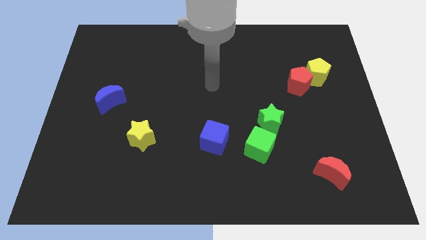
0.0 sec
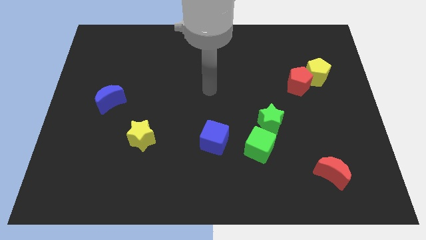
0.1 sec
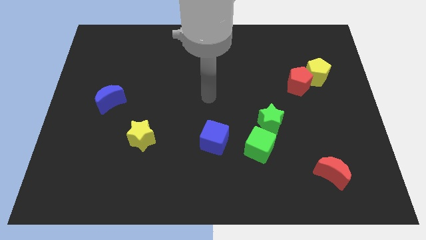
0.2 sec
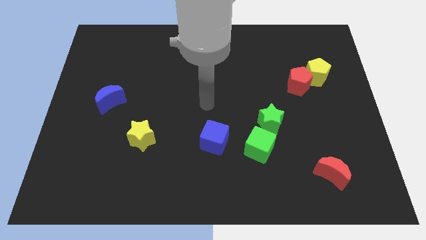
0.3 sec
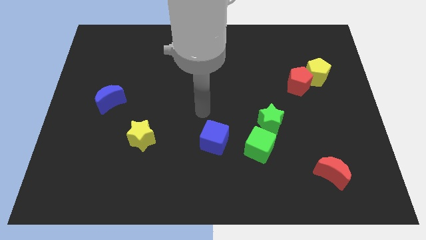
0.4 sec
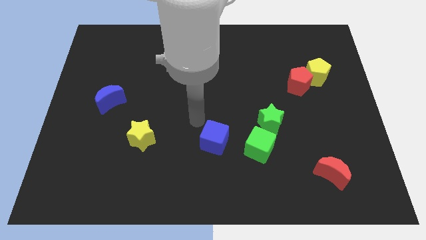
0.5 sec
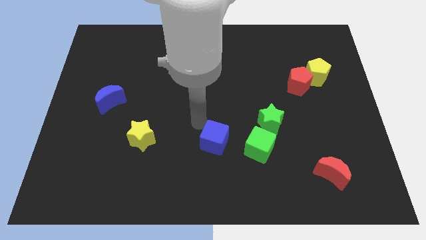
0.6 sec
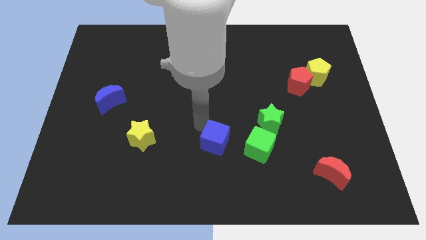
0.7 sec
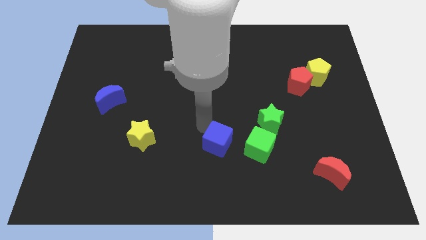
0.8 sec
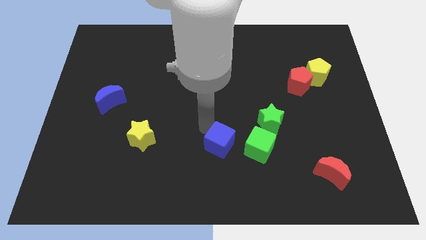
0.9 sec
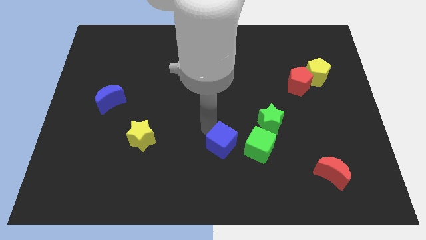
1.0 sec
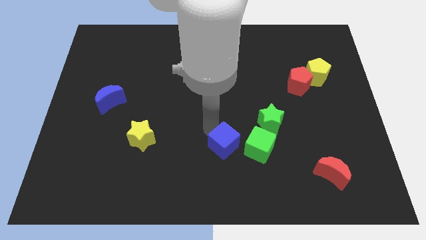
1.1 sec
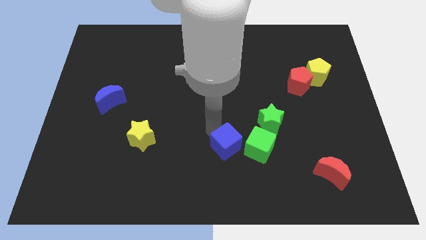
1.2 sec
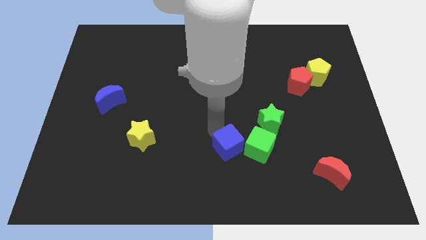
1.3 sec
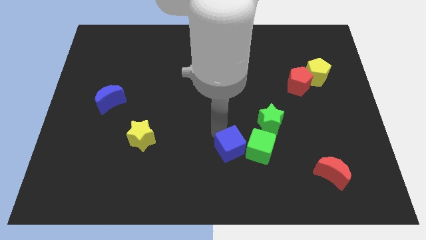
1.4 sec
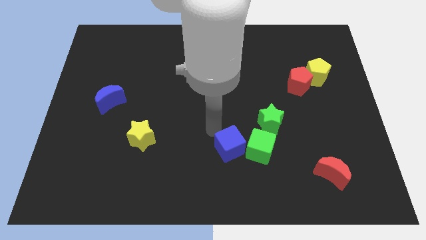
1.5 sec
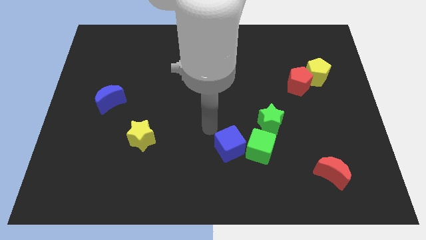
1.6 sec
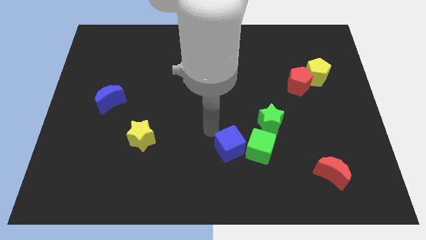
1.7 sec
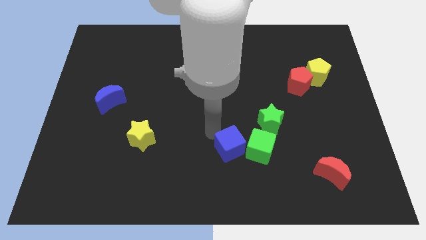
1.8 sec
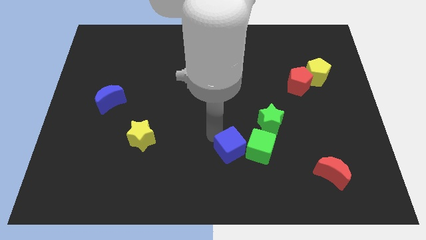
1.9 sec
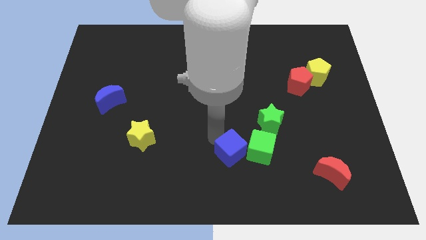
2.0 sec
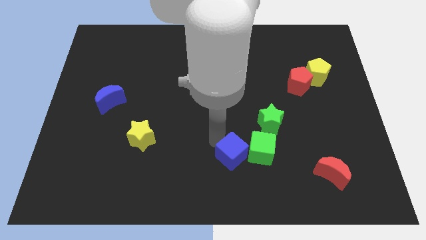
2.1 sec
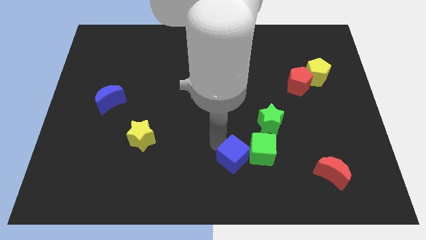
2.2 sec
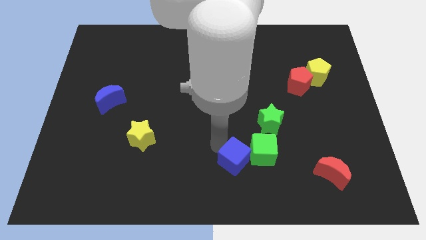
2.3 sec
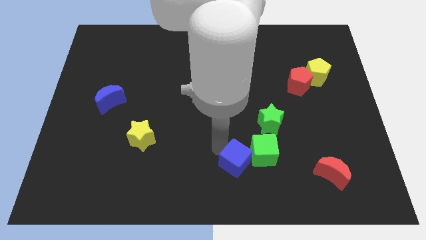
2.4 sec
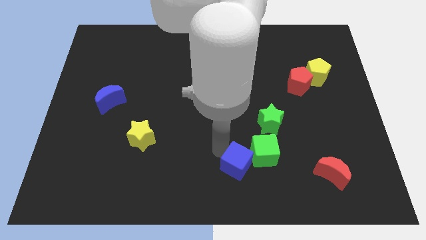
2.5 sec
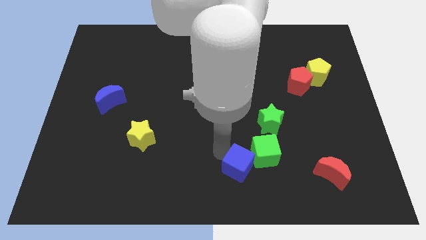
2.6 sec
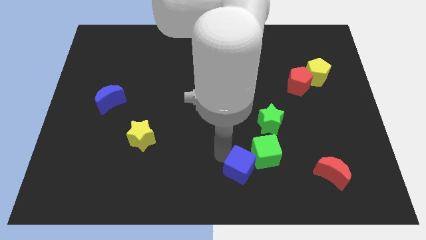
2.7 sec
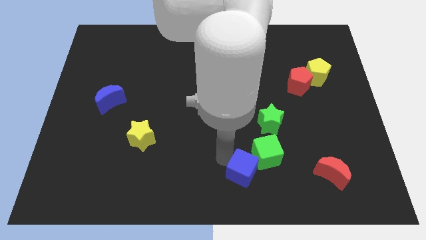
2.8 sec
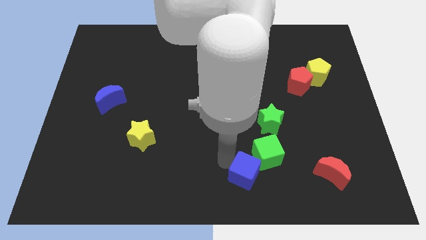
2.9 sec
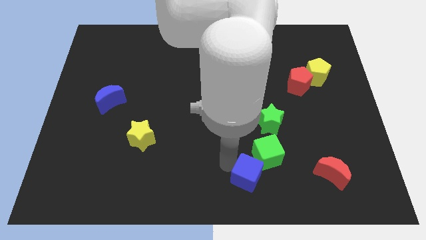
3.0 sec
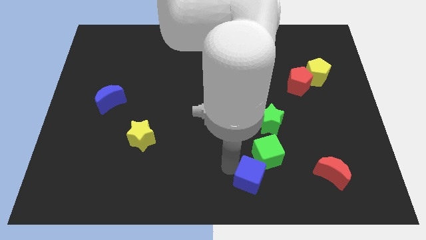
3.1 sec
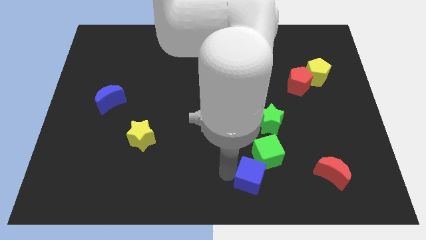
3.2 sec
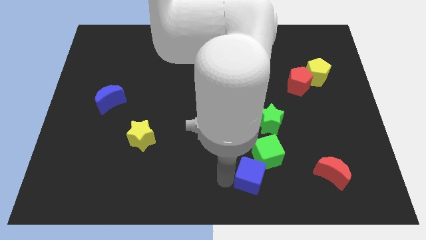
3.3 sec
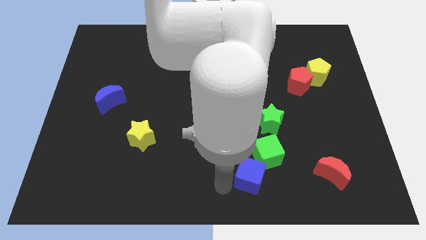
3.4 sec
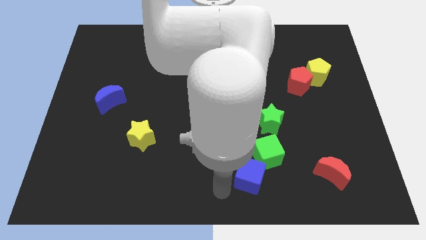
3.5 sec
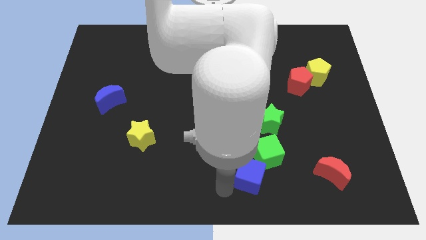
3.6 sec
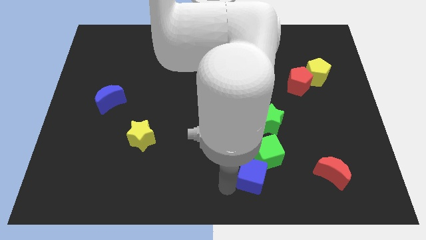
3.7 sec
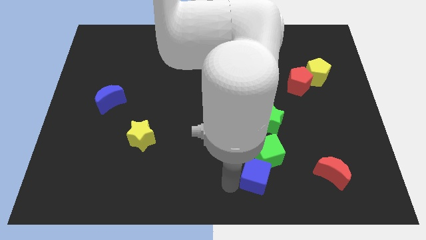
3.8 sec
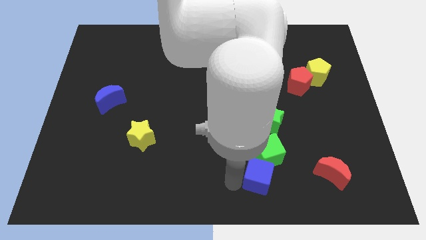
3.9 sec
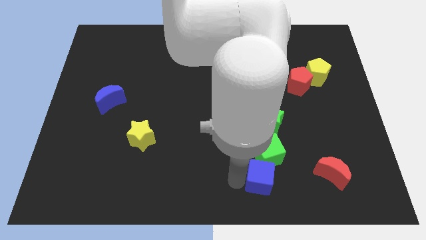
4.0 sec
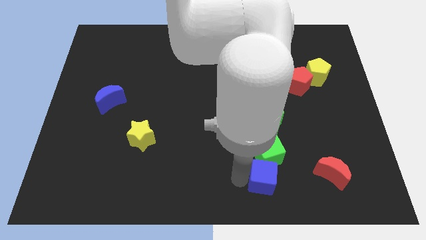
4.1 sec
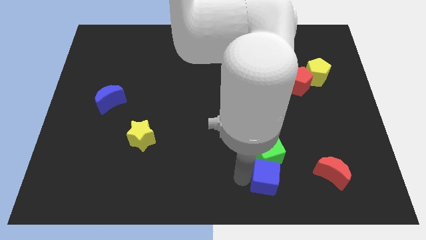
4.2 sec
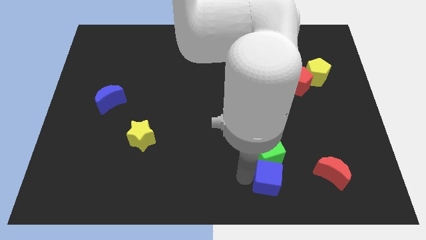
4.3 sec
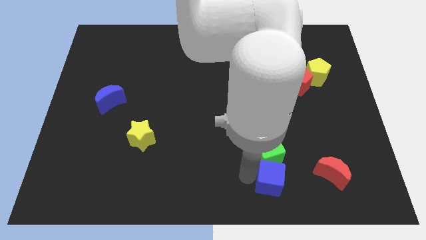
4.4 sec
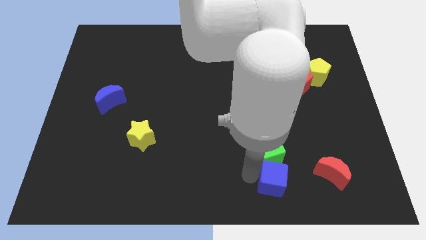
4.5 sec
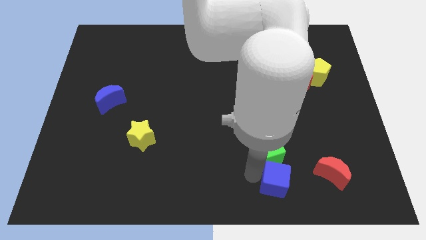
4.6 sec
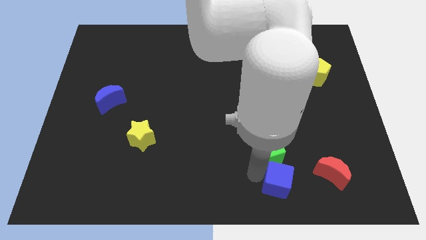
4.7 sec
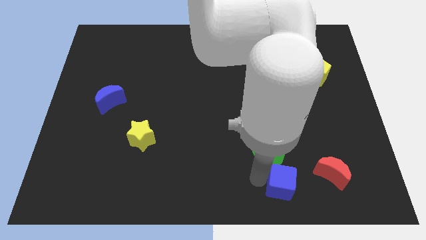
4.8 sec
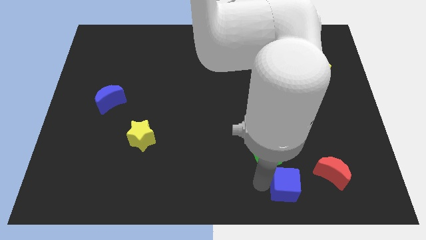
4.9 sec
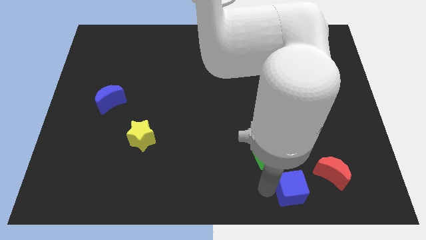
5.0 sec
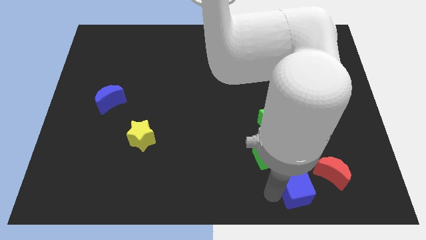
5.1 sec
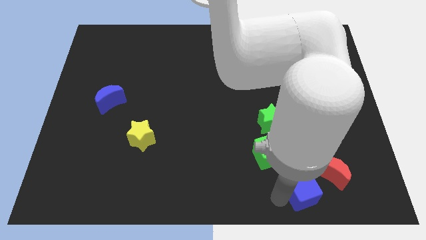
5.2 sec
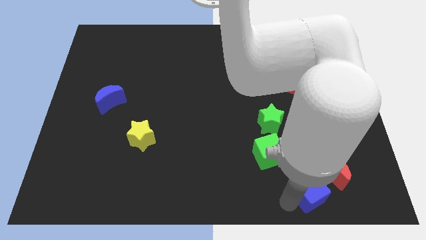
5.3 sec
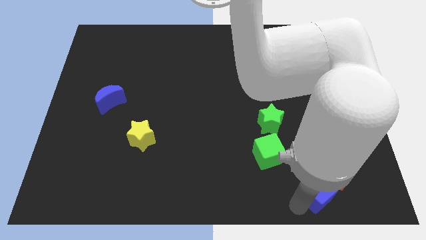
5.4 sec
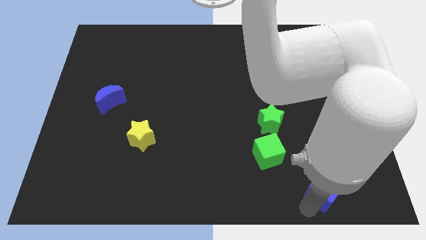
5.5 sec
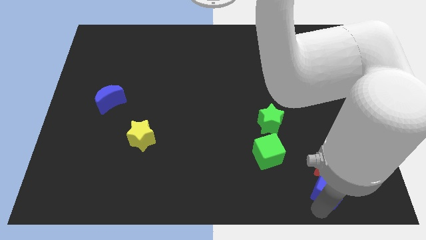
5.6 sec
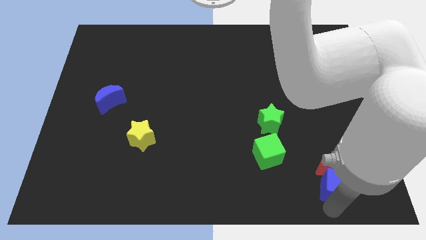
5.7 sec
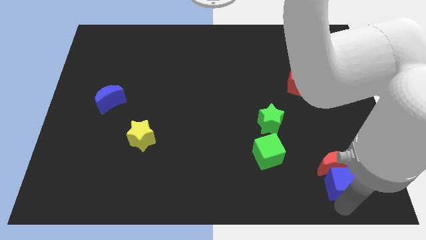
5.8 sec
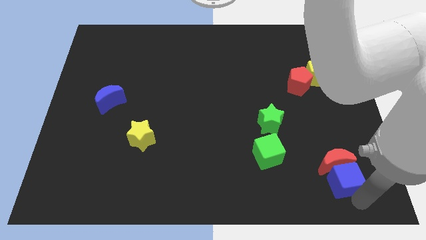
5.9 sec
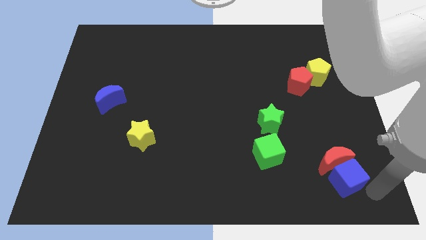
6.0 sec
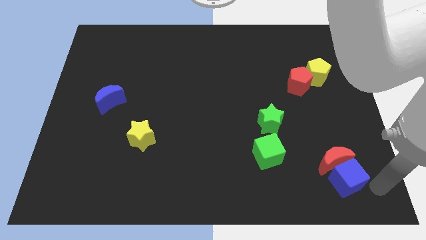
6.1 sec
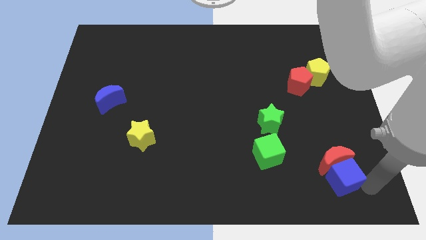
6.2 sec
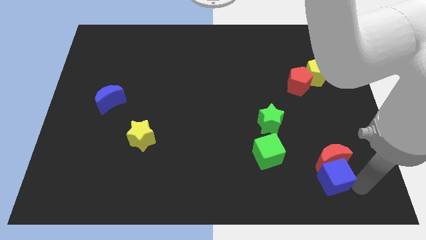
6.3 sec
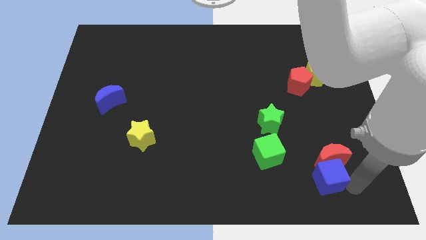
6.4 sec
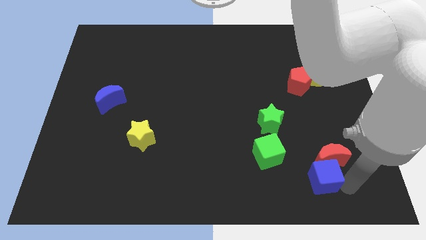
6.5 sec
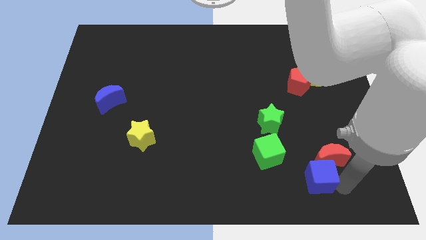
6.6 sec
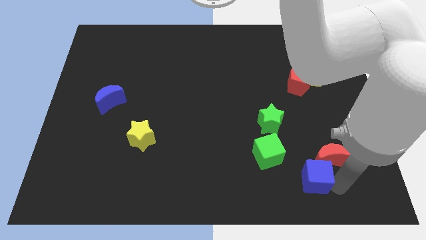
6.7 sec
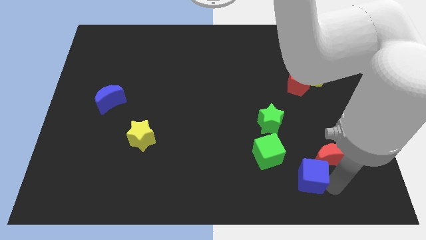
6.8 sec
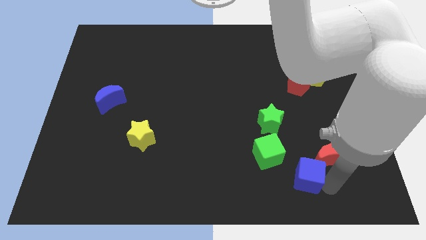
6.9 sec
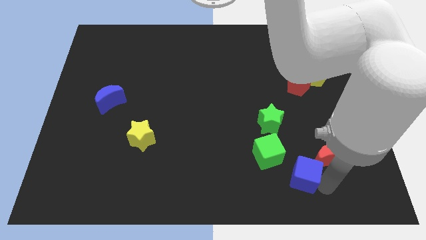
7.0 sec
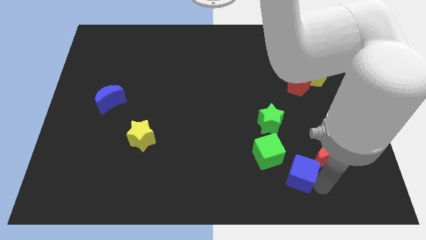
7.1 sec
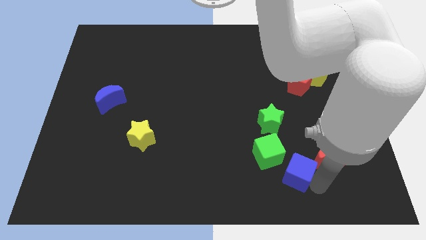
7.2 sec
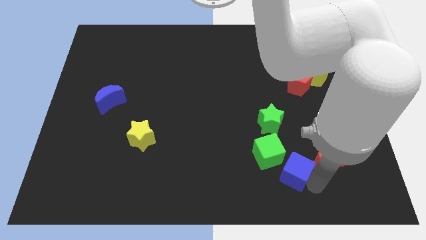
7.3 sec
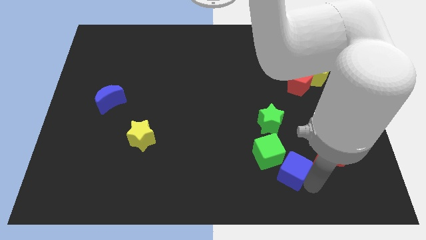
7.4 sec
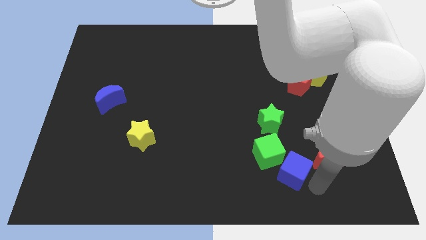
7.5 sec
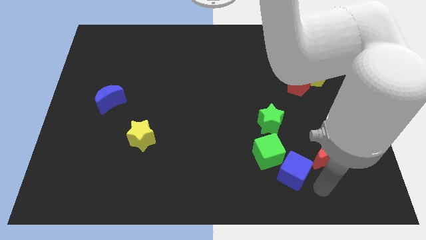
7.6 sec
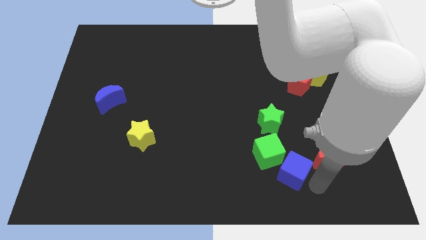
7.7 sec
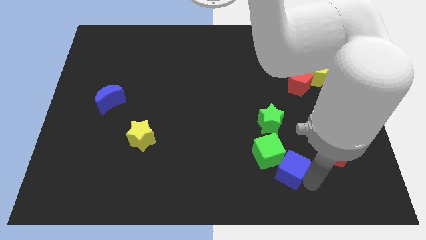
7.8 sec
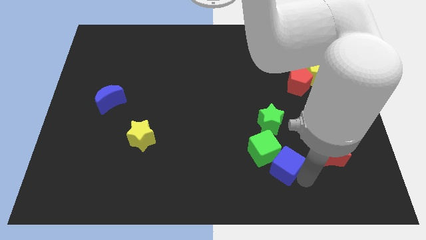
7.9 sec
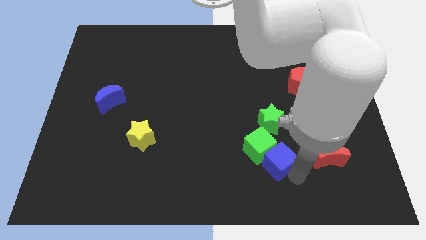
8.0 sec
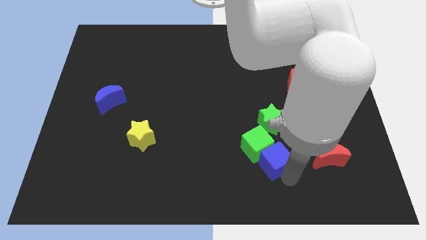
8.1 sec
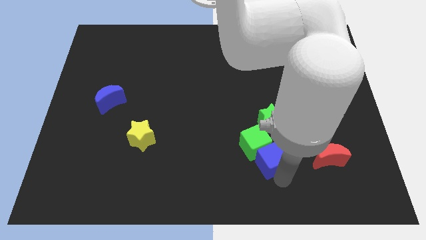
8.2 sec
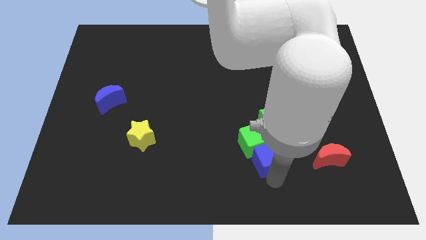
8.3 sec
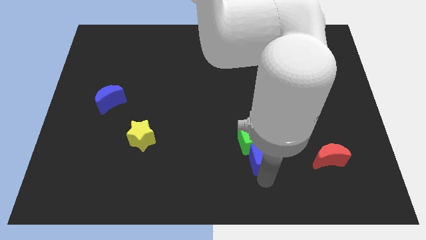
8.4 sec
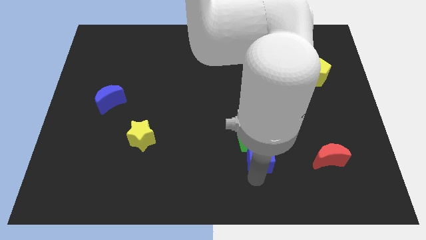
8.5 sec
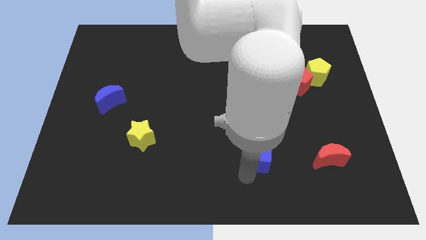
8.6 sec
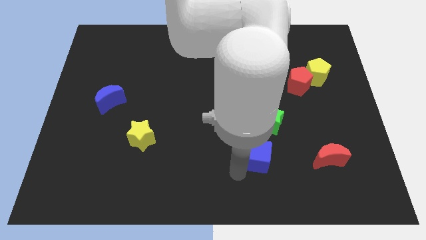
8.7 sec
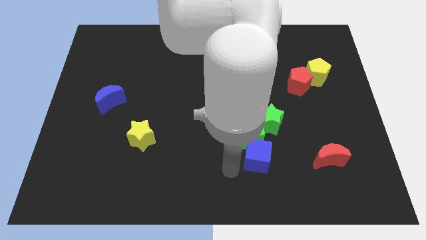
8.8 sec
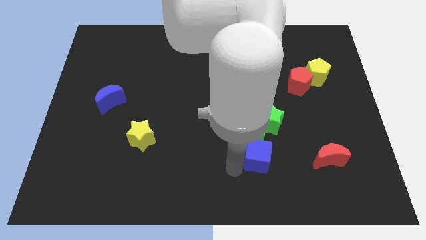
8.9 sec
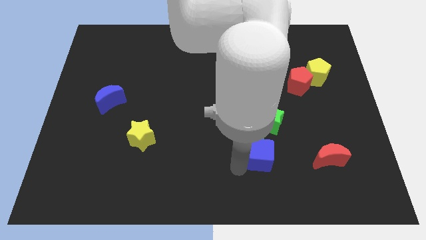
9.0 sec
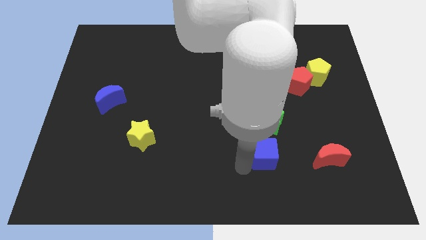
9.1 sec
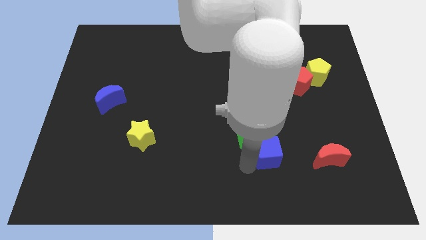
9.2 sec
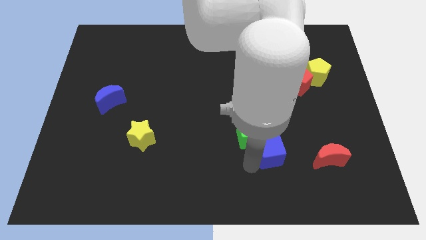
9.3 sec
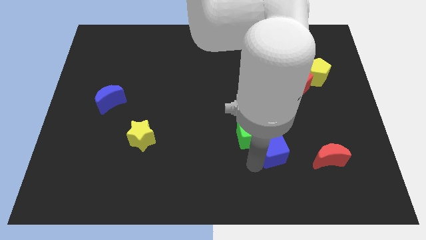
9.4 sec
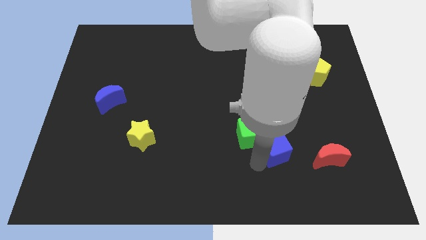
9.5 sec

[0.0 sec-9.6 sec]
put the blue cube to the bottom right side of the green star
